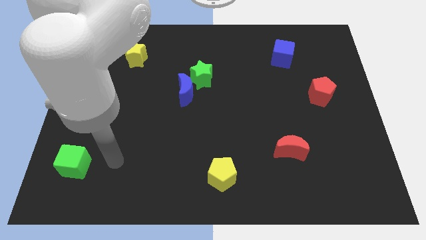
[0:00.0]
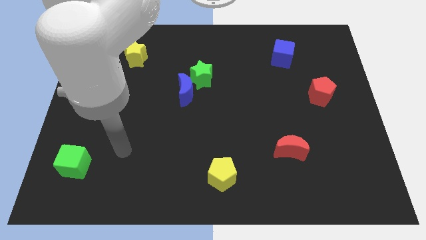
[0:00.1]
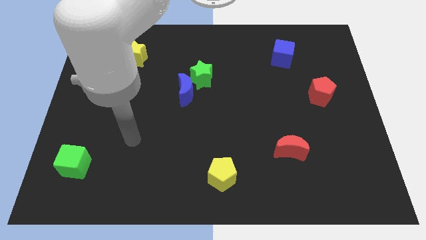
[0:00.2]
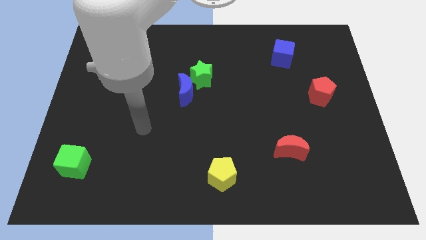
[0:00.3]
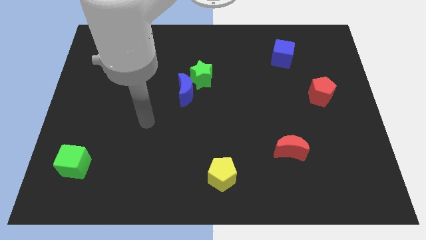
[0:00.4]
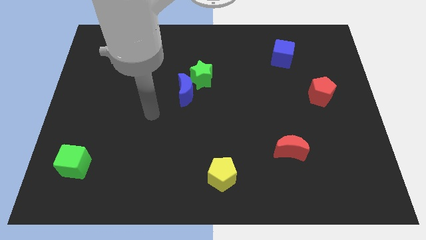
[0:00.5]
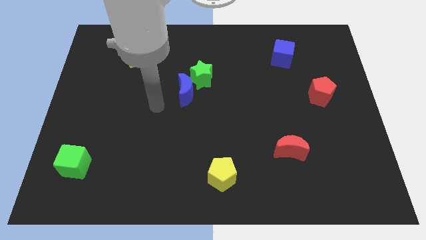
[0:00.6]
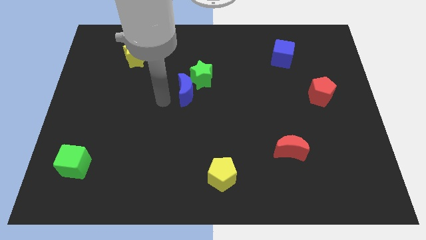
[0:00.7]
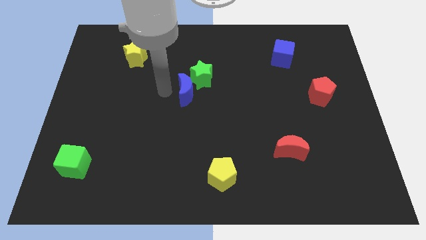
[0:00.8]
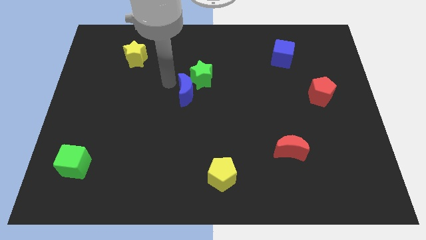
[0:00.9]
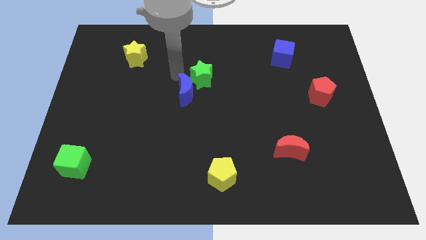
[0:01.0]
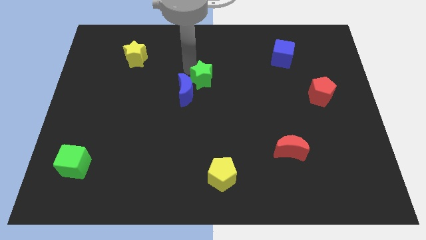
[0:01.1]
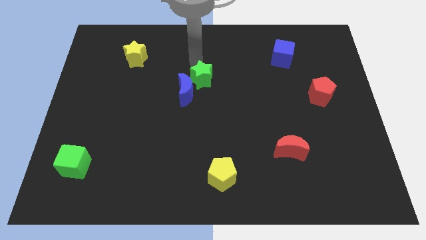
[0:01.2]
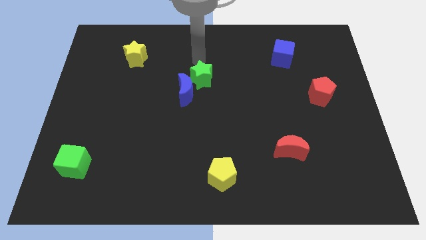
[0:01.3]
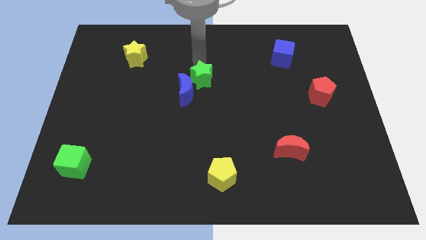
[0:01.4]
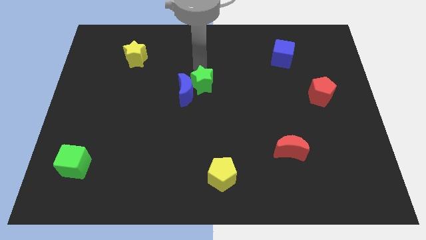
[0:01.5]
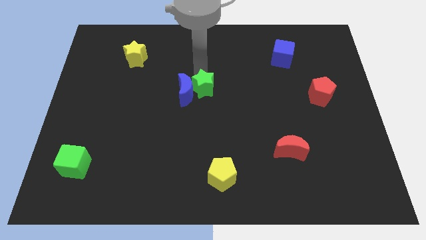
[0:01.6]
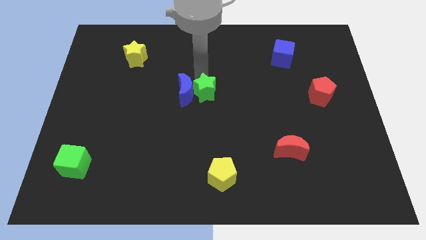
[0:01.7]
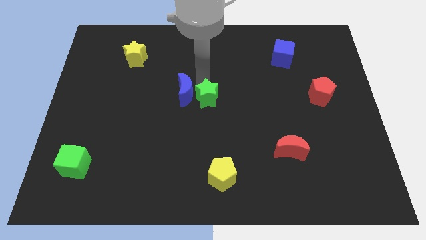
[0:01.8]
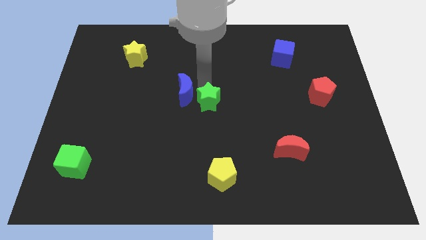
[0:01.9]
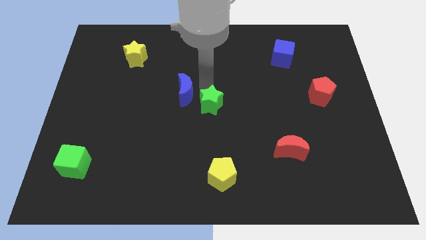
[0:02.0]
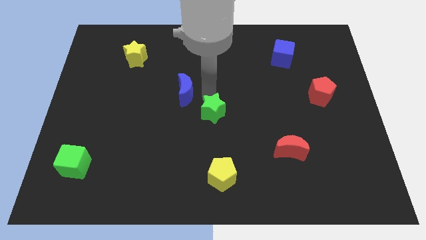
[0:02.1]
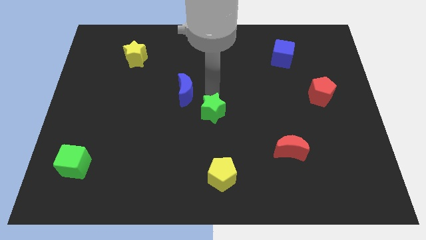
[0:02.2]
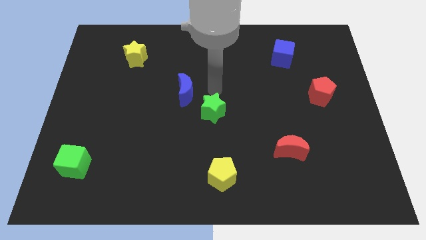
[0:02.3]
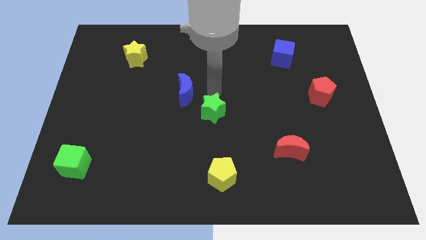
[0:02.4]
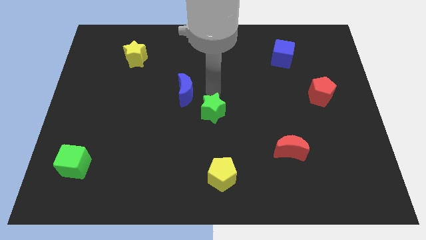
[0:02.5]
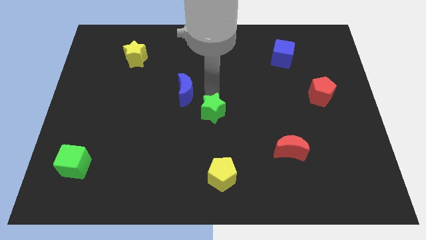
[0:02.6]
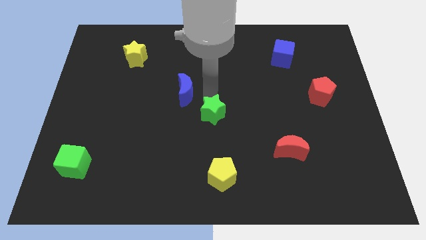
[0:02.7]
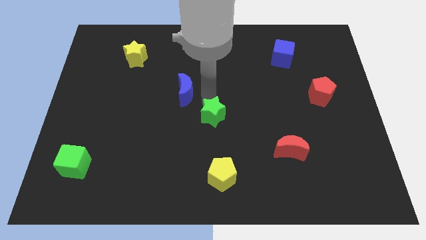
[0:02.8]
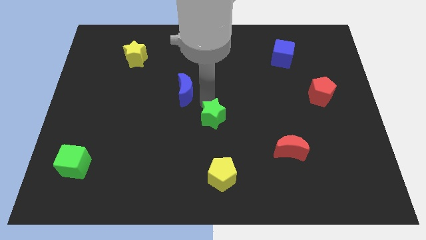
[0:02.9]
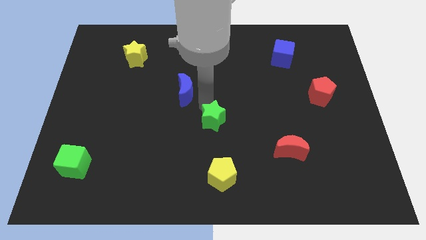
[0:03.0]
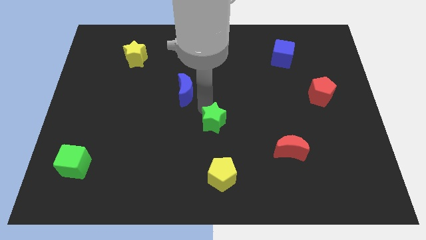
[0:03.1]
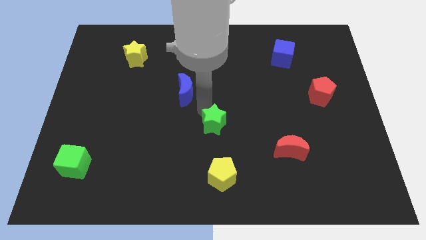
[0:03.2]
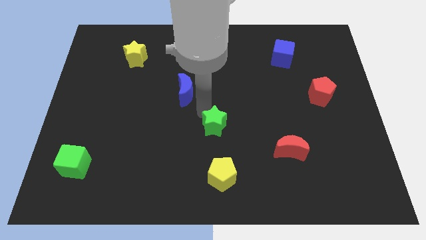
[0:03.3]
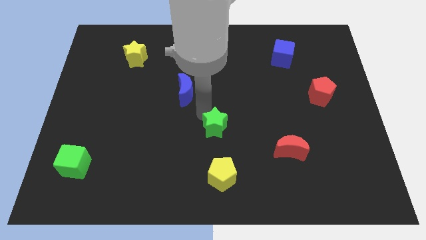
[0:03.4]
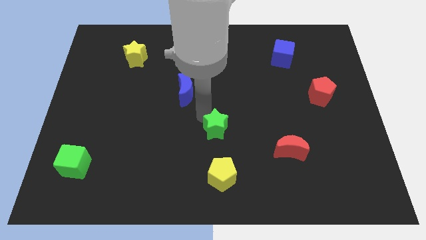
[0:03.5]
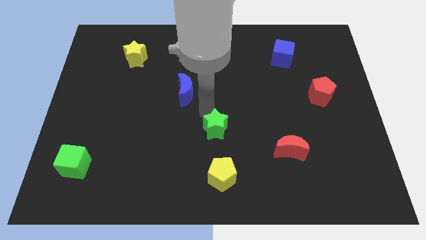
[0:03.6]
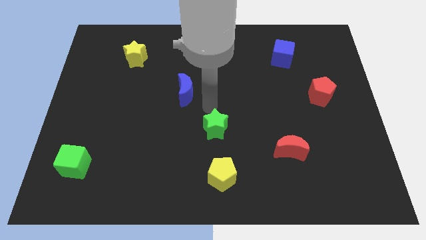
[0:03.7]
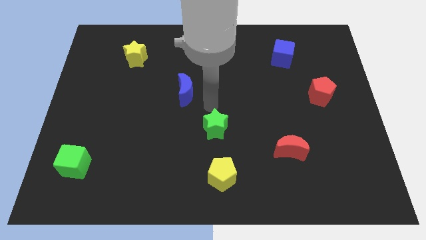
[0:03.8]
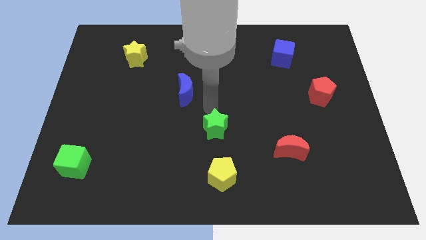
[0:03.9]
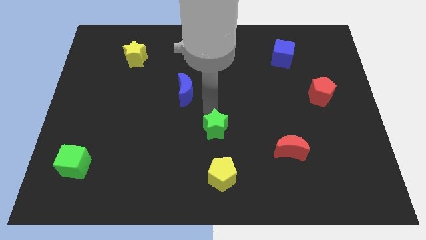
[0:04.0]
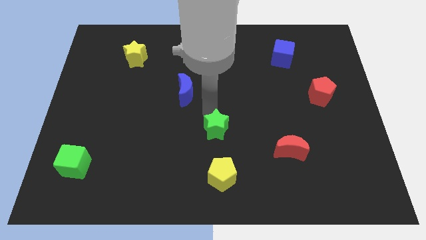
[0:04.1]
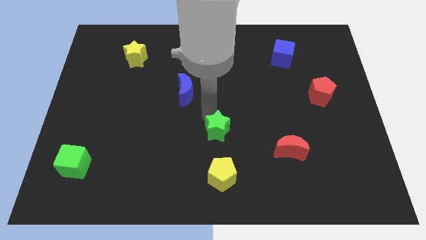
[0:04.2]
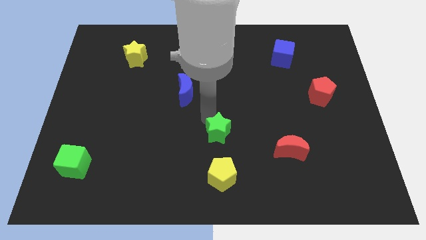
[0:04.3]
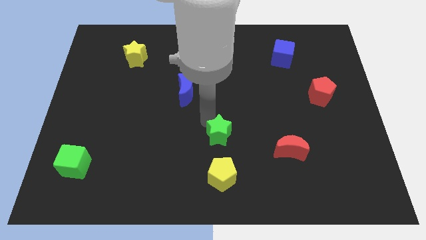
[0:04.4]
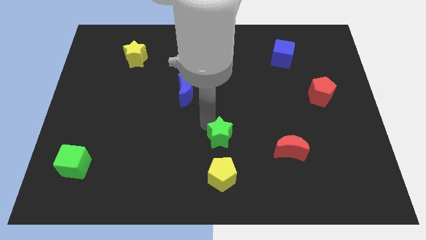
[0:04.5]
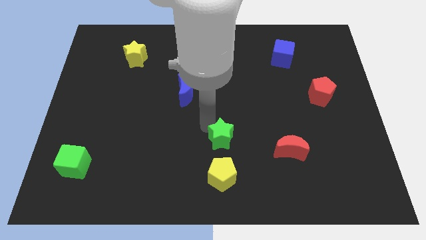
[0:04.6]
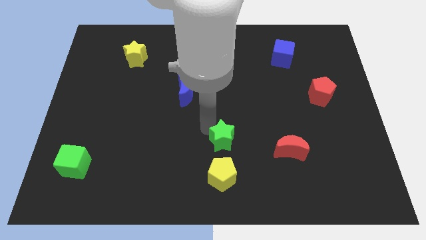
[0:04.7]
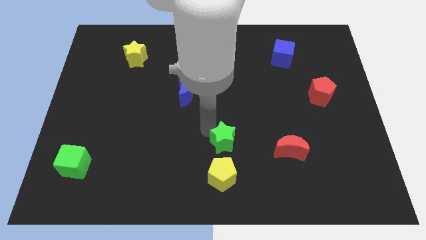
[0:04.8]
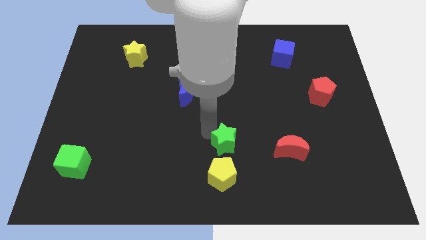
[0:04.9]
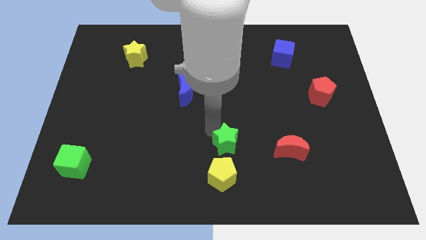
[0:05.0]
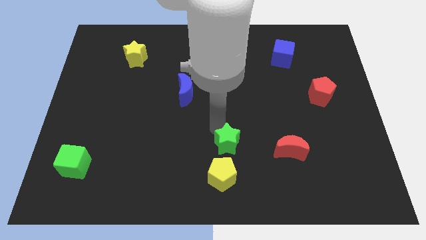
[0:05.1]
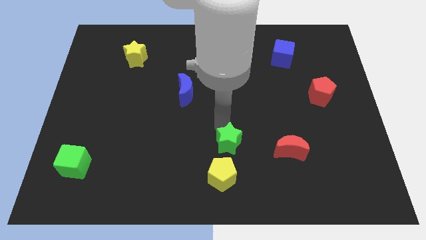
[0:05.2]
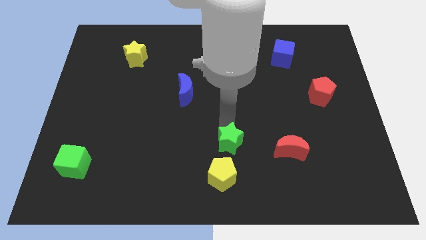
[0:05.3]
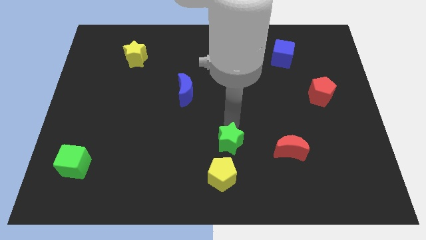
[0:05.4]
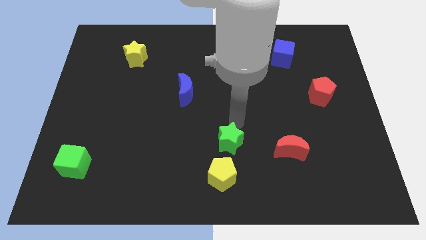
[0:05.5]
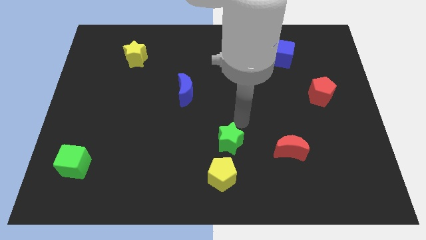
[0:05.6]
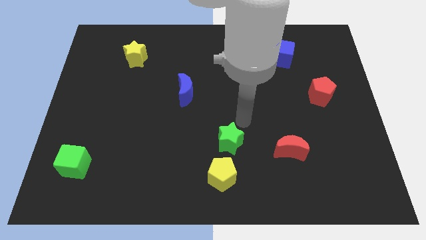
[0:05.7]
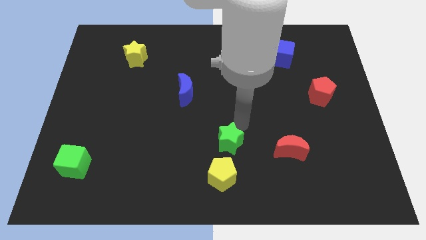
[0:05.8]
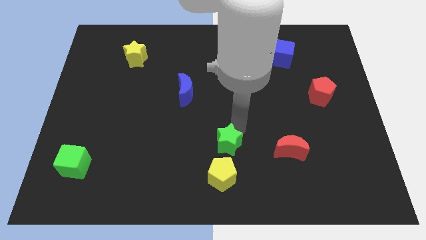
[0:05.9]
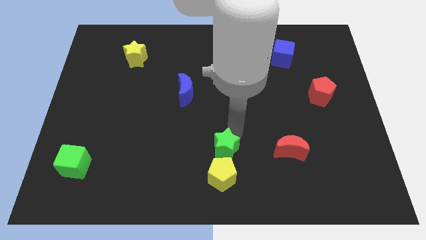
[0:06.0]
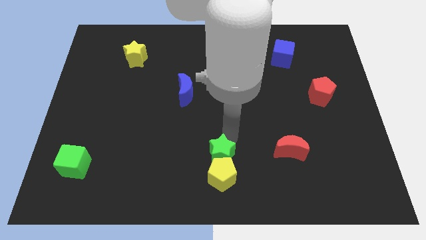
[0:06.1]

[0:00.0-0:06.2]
put the green star towards the yellow pentagon
